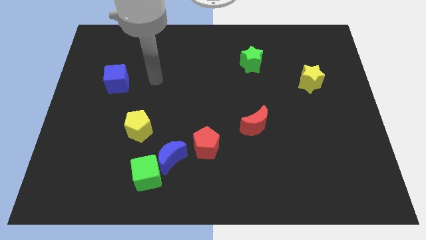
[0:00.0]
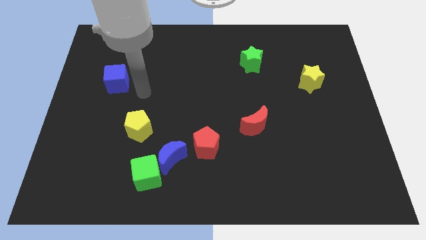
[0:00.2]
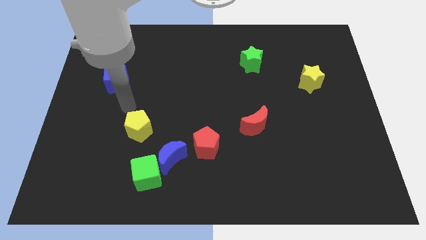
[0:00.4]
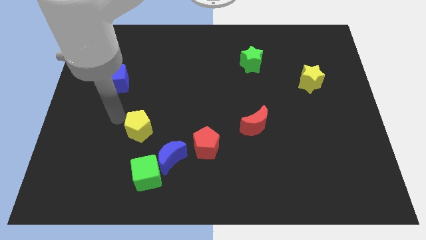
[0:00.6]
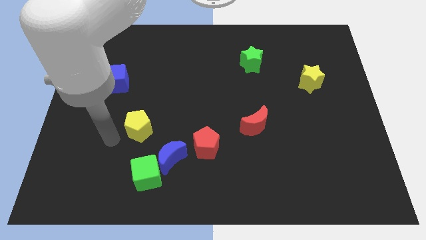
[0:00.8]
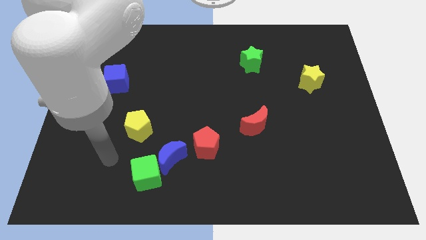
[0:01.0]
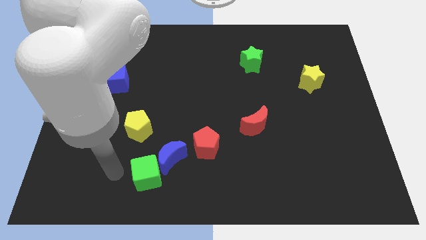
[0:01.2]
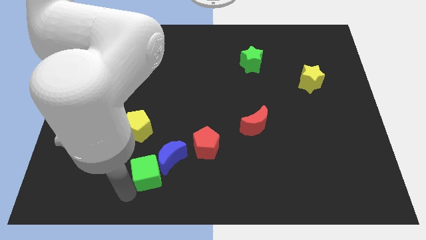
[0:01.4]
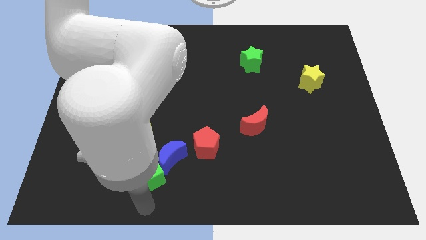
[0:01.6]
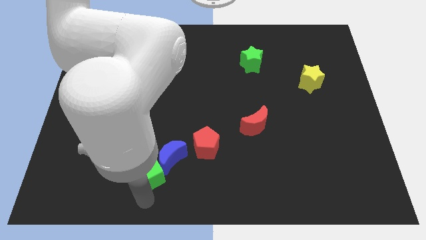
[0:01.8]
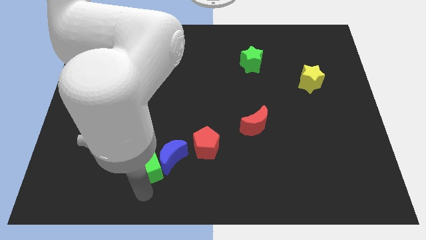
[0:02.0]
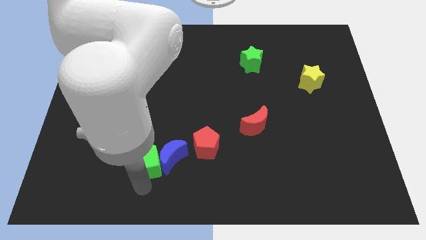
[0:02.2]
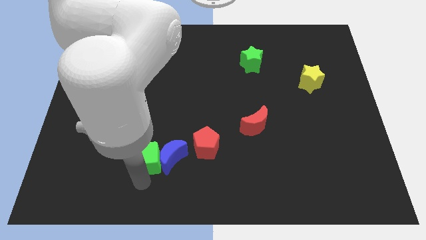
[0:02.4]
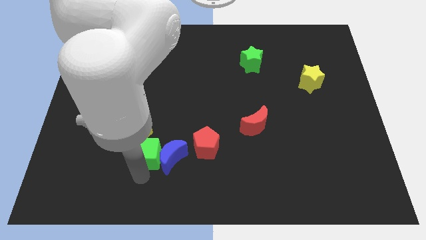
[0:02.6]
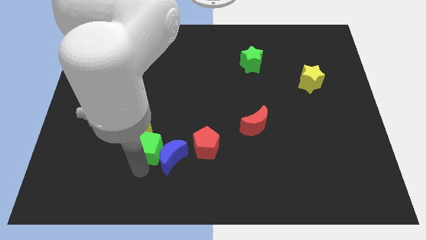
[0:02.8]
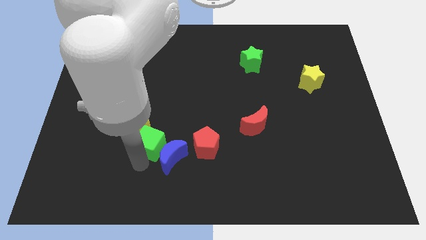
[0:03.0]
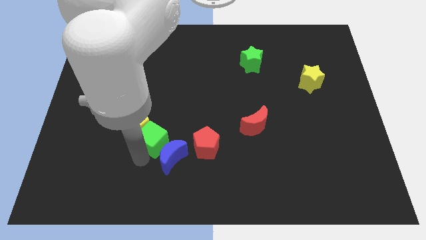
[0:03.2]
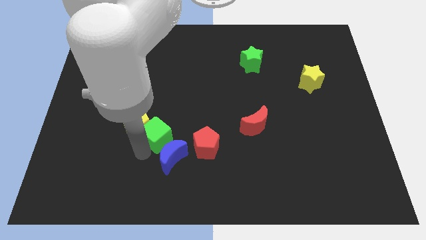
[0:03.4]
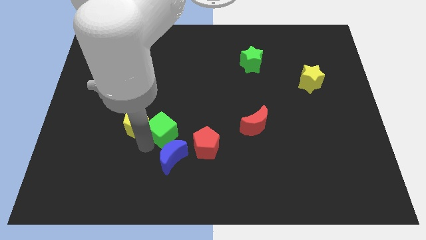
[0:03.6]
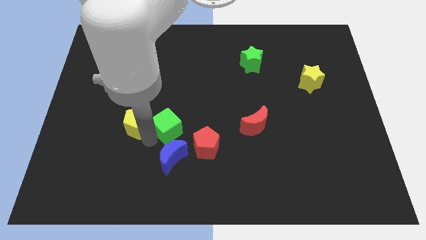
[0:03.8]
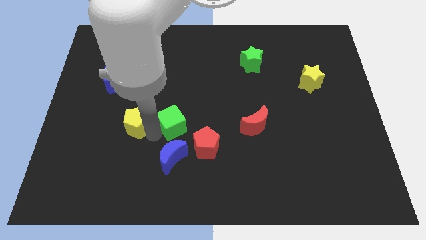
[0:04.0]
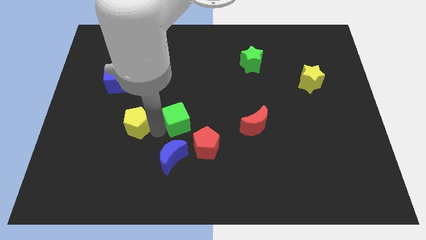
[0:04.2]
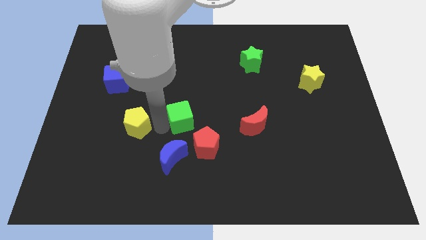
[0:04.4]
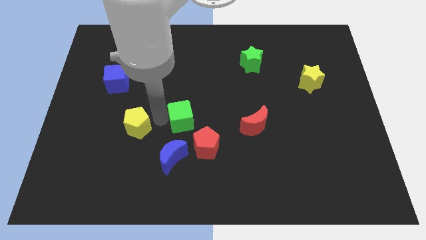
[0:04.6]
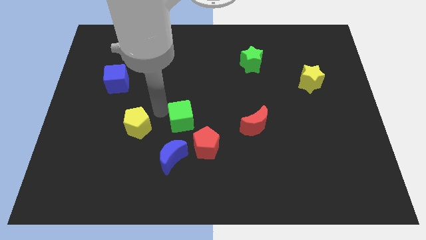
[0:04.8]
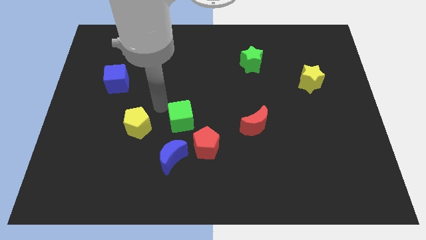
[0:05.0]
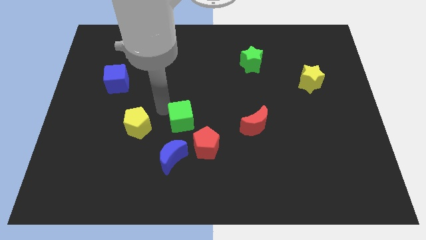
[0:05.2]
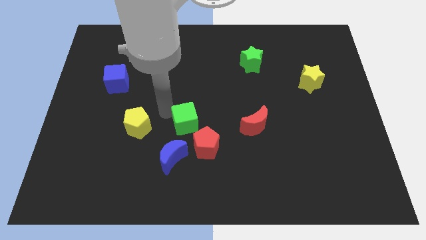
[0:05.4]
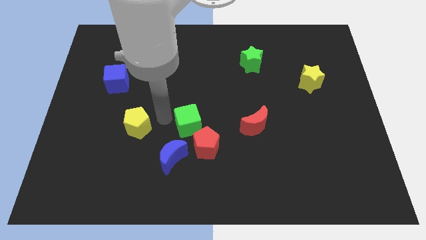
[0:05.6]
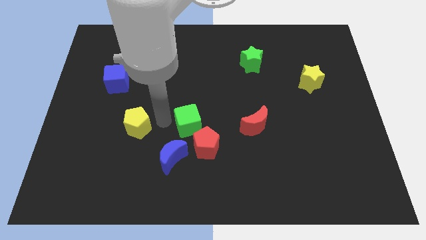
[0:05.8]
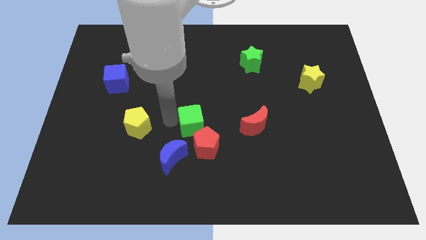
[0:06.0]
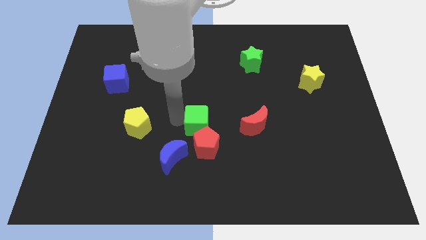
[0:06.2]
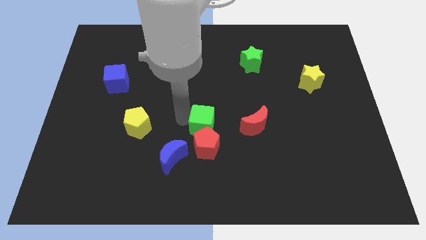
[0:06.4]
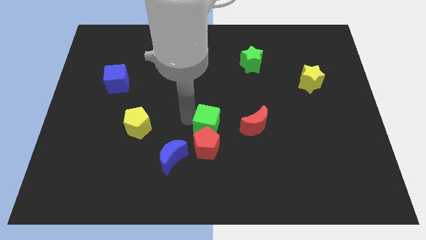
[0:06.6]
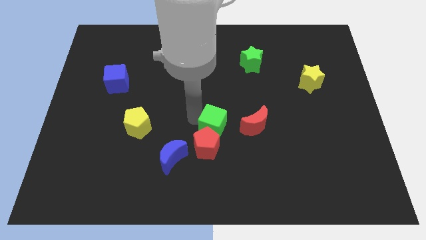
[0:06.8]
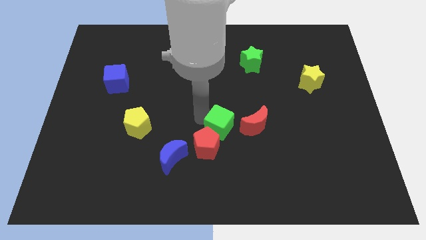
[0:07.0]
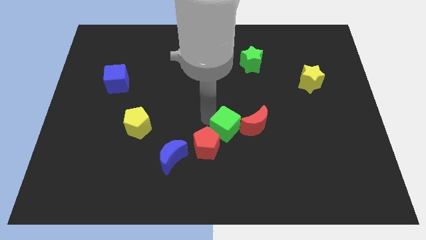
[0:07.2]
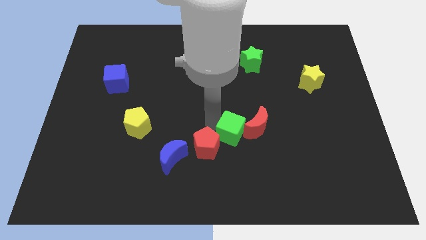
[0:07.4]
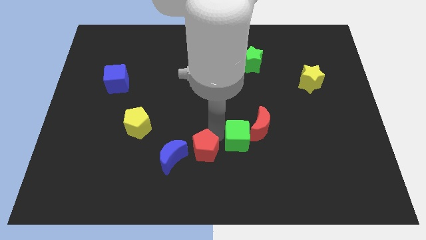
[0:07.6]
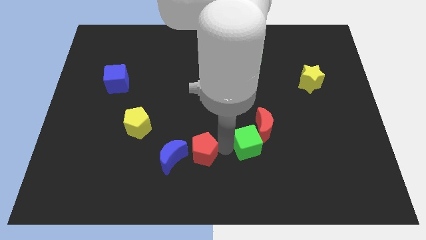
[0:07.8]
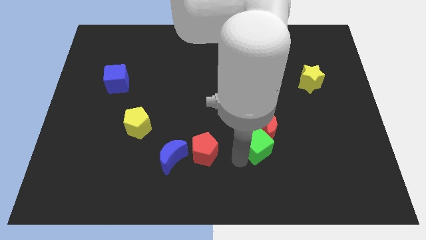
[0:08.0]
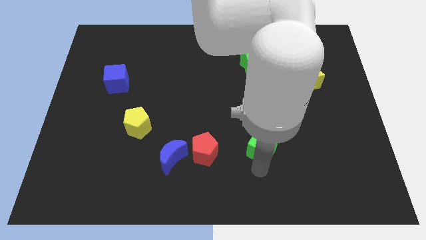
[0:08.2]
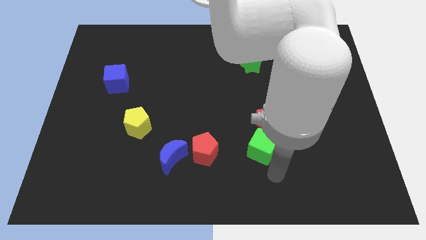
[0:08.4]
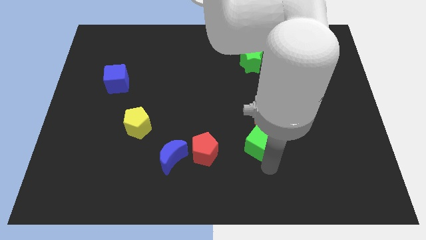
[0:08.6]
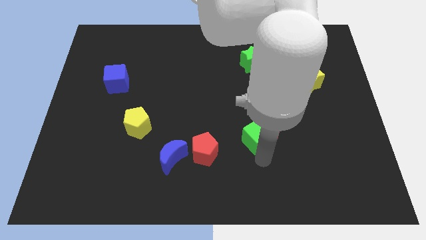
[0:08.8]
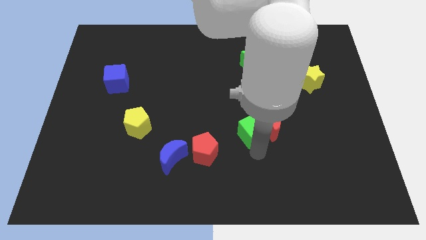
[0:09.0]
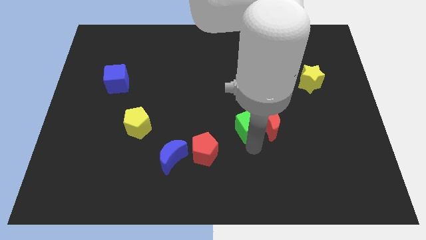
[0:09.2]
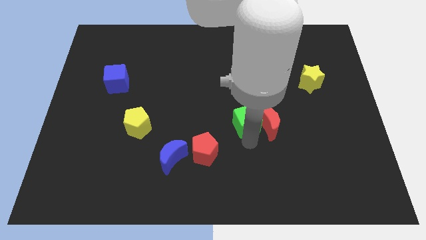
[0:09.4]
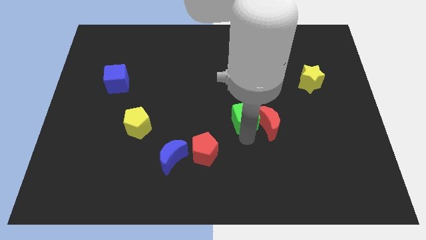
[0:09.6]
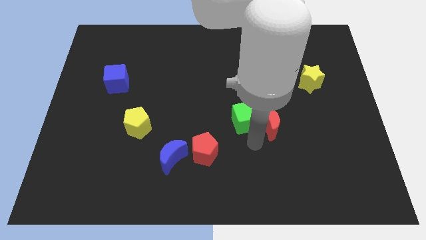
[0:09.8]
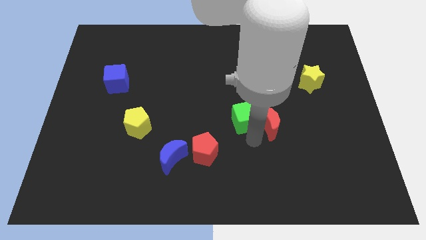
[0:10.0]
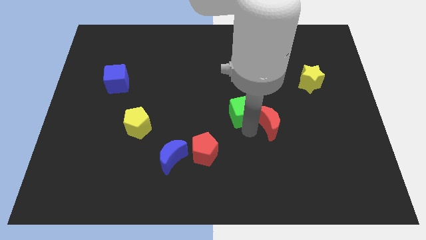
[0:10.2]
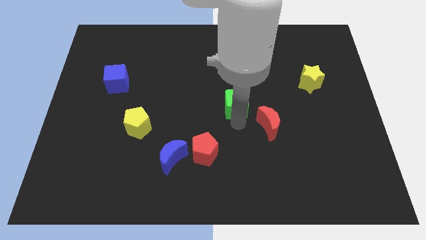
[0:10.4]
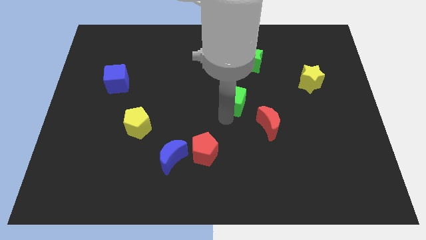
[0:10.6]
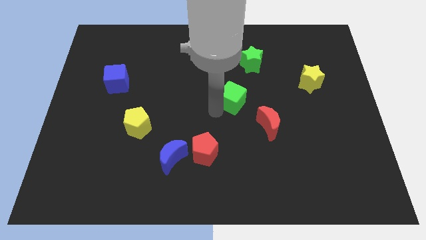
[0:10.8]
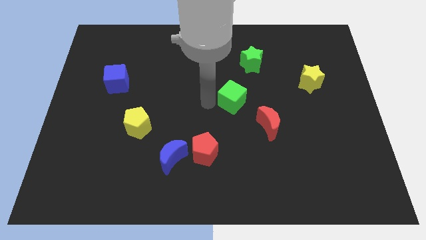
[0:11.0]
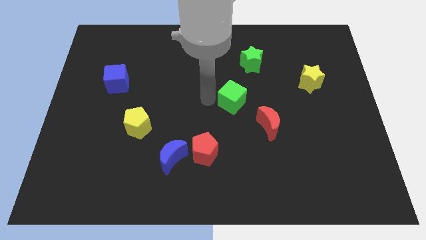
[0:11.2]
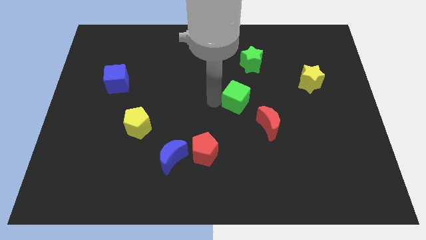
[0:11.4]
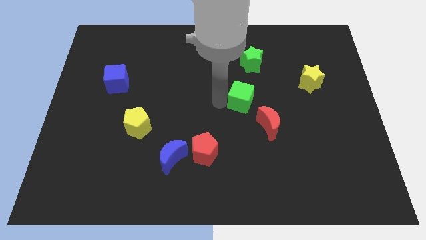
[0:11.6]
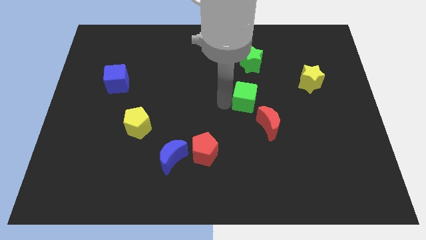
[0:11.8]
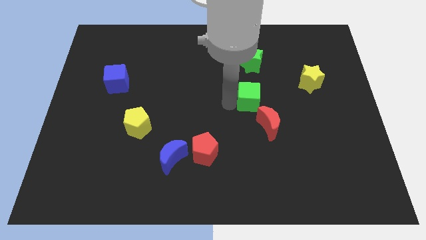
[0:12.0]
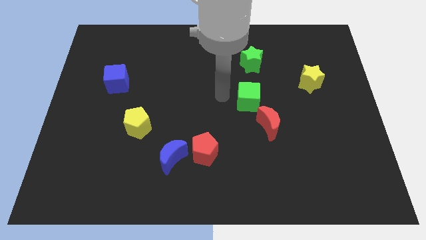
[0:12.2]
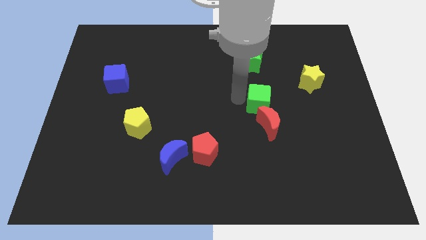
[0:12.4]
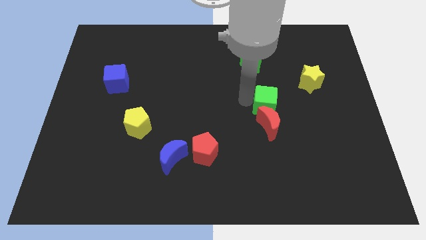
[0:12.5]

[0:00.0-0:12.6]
put the green cube diagonally up and to the right of the red moon
